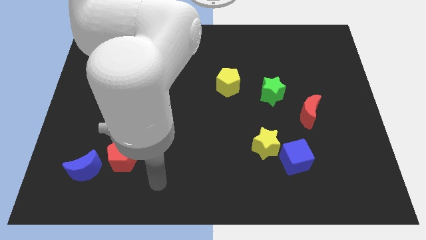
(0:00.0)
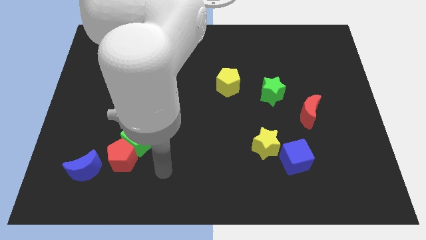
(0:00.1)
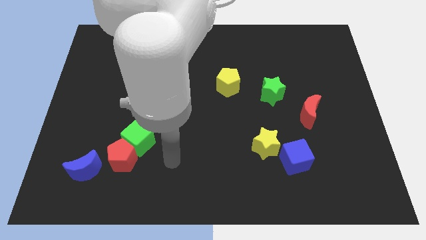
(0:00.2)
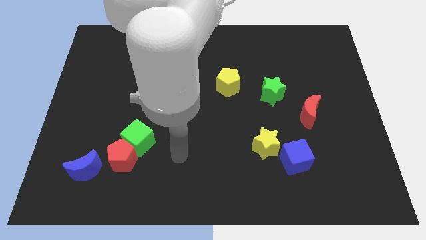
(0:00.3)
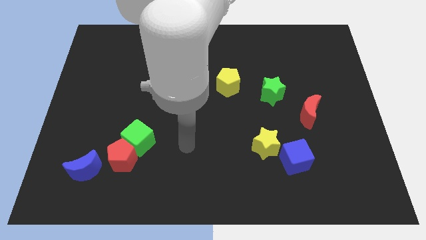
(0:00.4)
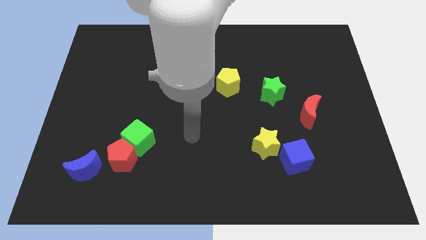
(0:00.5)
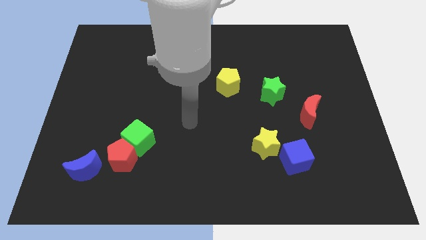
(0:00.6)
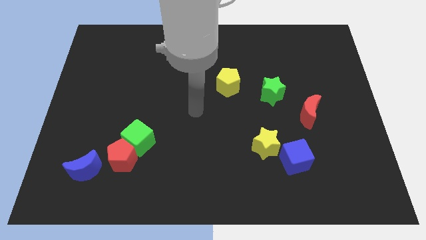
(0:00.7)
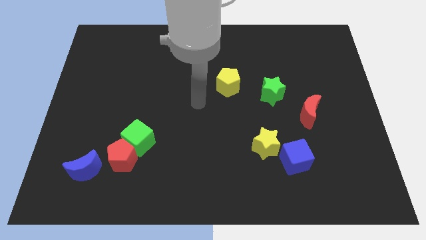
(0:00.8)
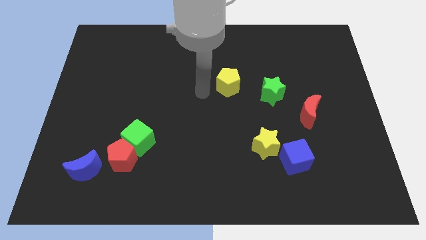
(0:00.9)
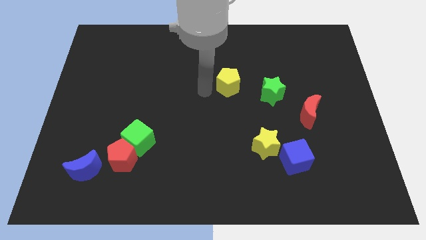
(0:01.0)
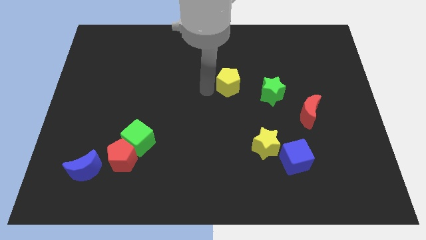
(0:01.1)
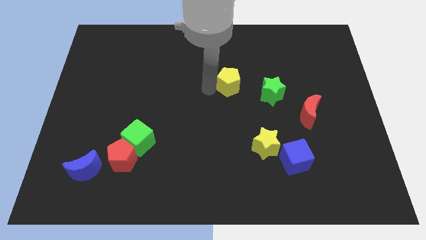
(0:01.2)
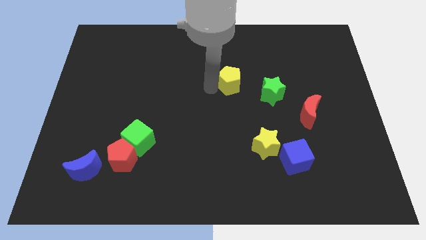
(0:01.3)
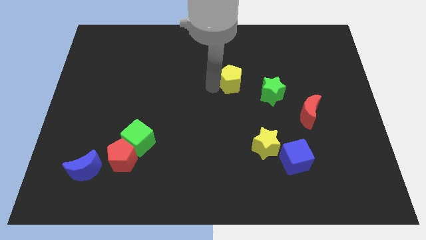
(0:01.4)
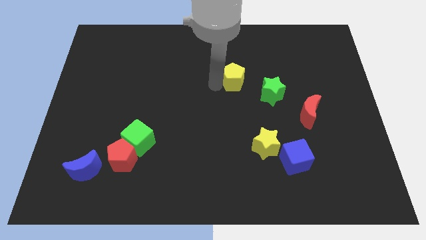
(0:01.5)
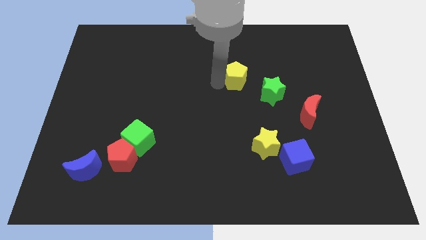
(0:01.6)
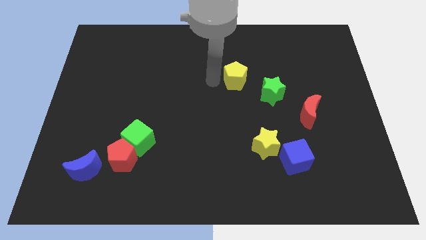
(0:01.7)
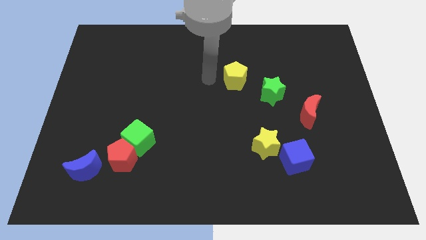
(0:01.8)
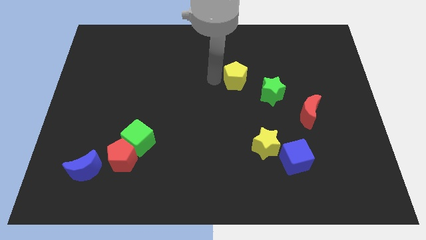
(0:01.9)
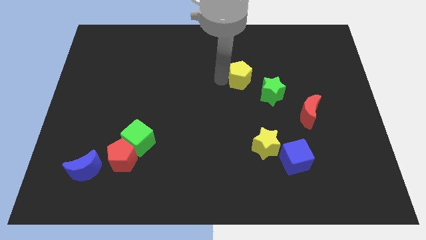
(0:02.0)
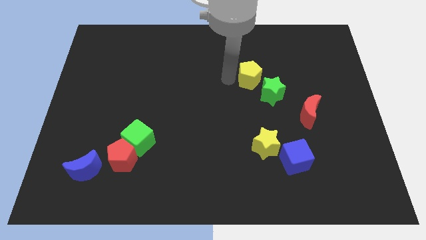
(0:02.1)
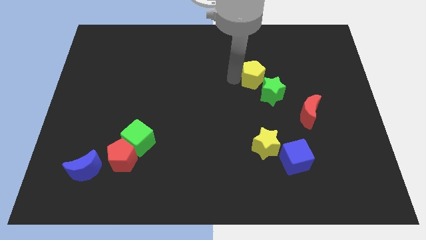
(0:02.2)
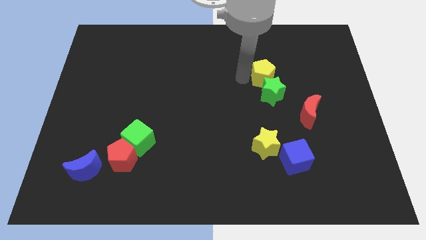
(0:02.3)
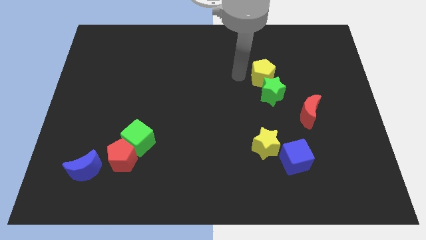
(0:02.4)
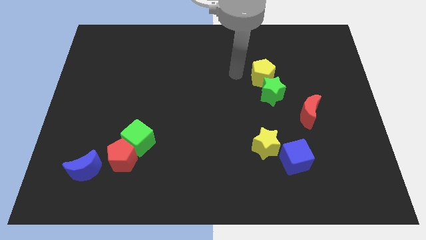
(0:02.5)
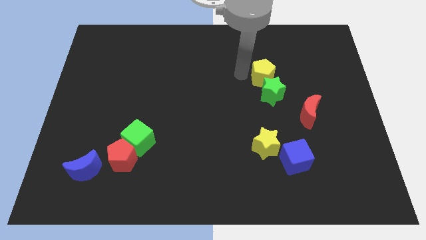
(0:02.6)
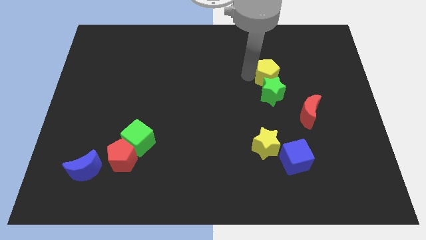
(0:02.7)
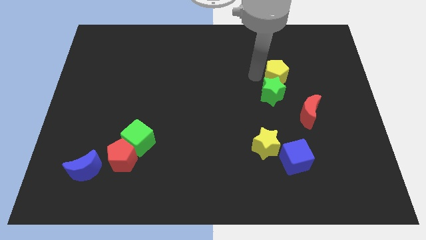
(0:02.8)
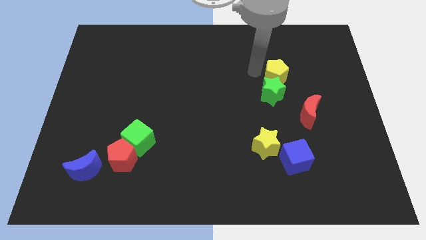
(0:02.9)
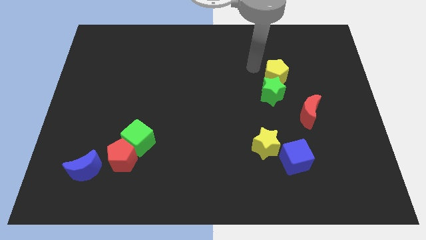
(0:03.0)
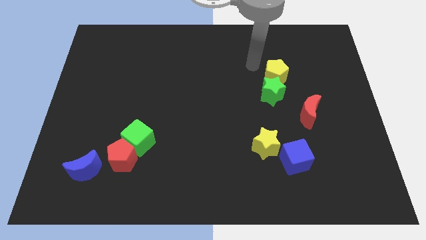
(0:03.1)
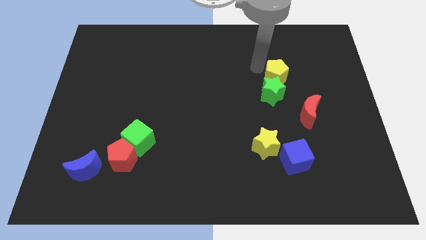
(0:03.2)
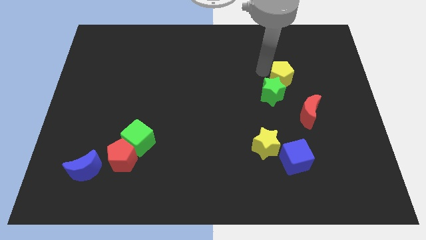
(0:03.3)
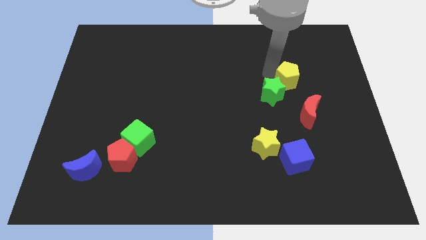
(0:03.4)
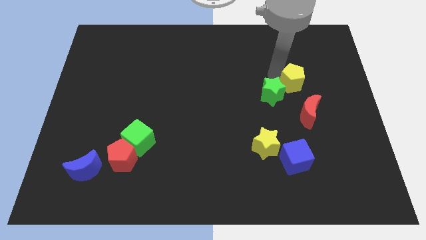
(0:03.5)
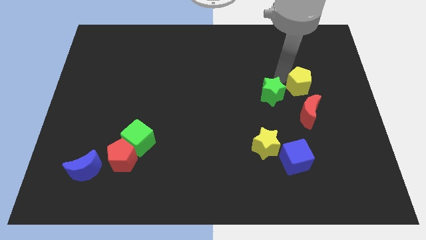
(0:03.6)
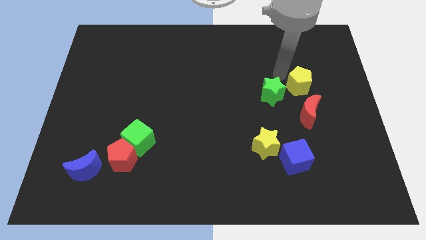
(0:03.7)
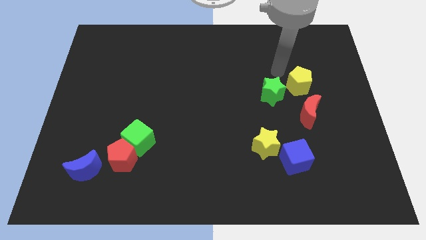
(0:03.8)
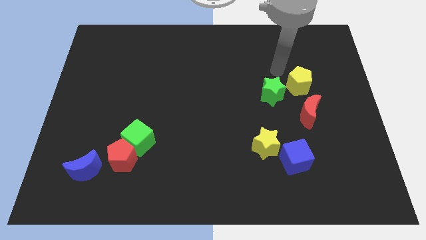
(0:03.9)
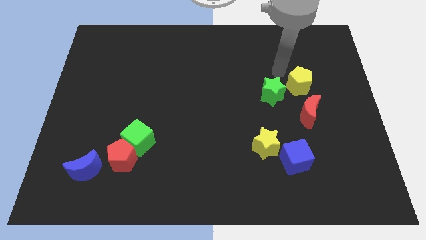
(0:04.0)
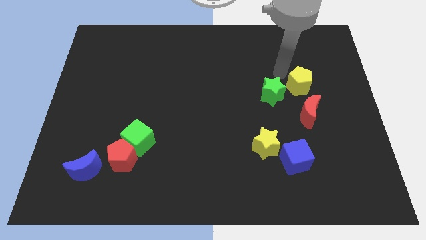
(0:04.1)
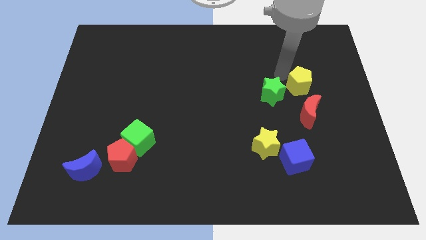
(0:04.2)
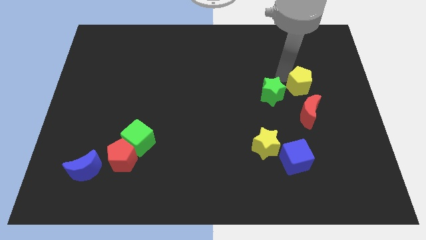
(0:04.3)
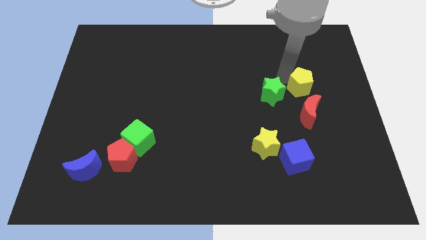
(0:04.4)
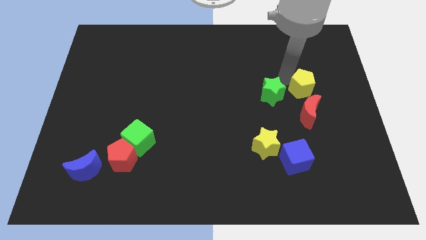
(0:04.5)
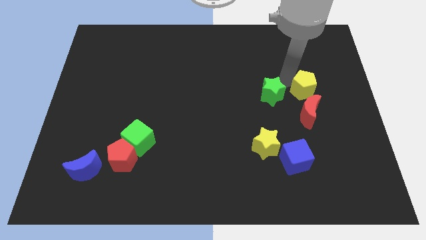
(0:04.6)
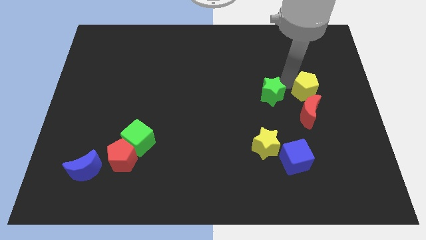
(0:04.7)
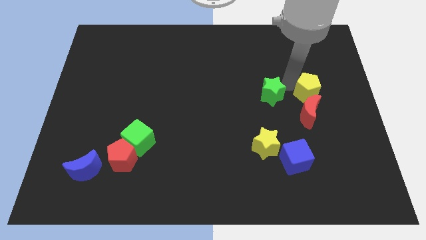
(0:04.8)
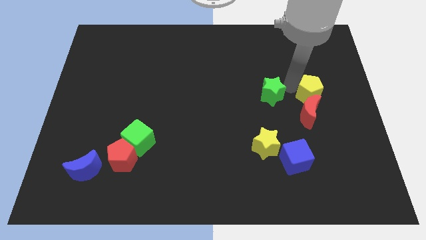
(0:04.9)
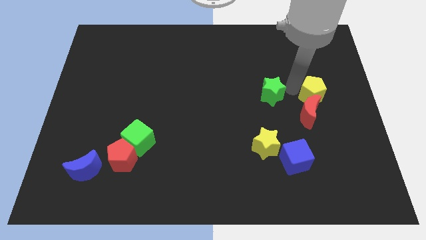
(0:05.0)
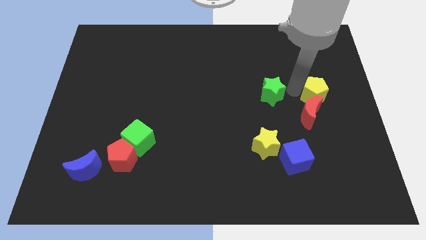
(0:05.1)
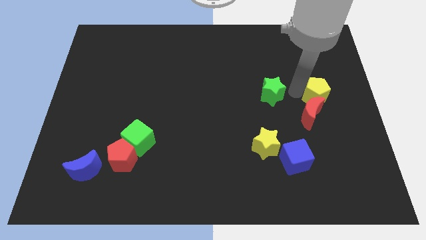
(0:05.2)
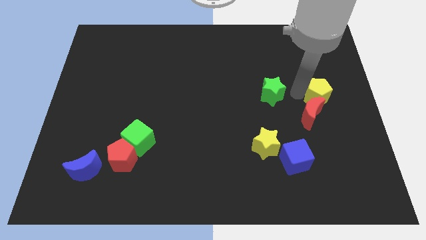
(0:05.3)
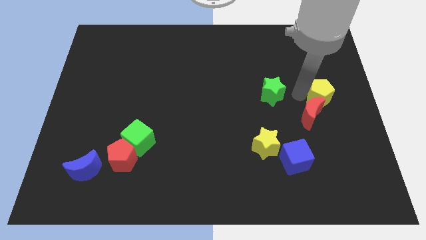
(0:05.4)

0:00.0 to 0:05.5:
slide the yellow pentagon to the right side of the board

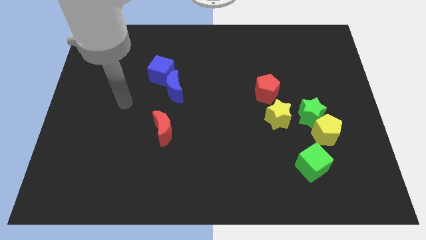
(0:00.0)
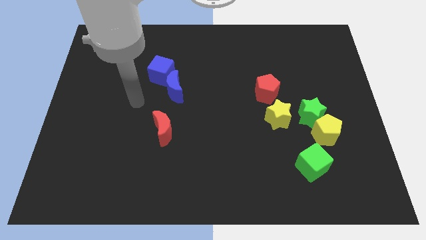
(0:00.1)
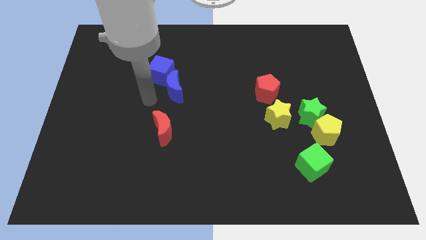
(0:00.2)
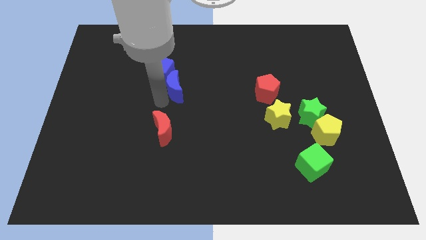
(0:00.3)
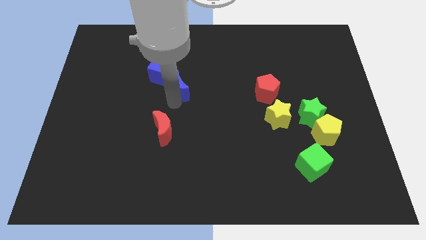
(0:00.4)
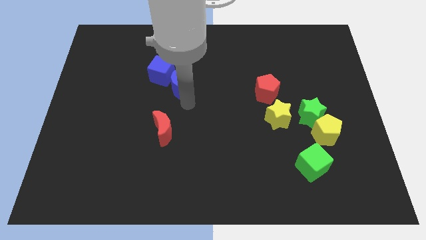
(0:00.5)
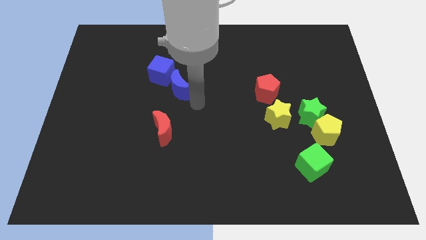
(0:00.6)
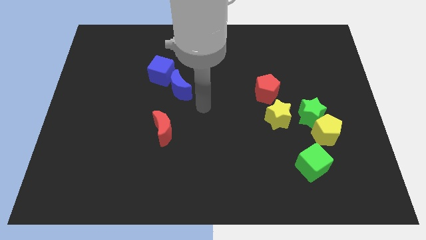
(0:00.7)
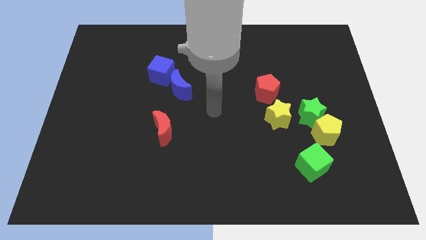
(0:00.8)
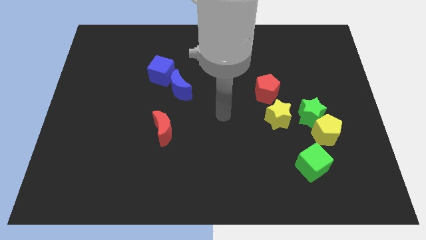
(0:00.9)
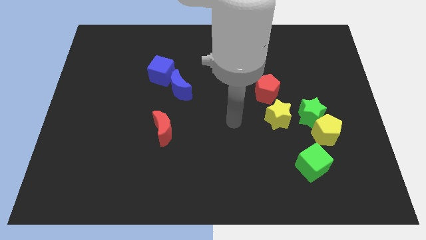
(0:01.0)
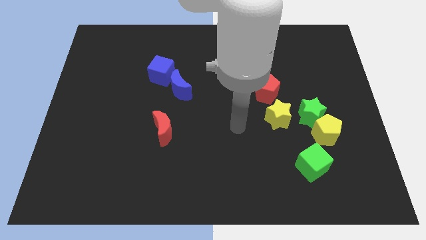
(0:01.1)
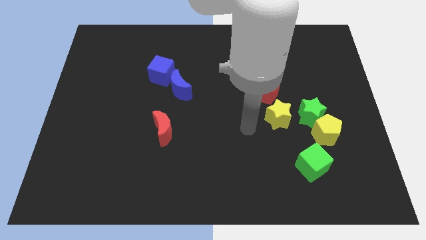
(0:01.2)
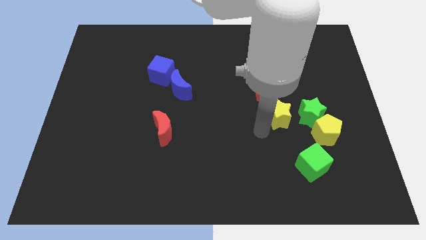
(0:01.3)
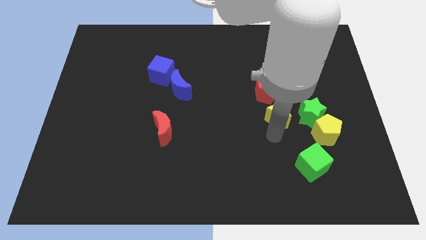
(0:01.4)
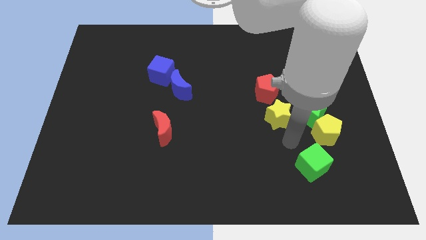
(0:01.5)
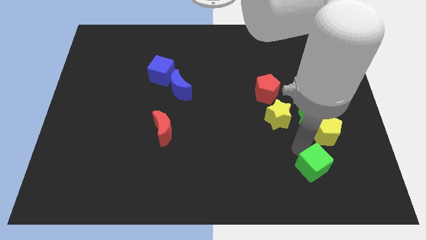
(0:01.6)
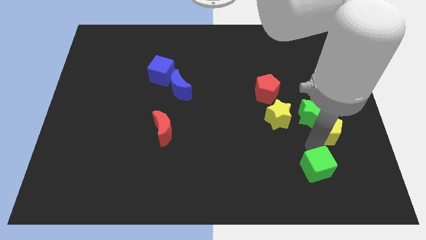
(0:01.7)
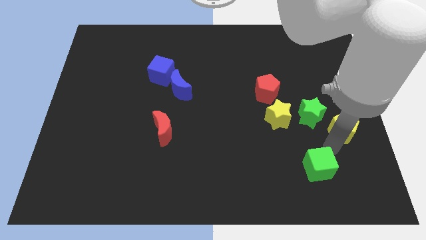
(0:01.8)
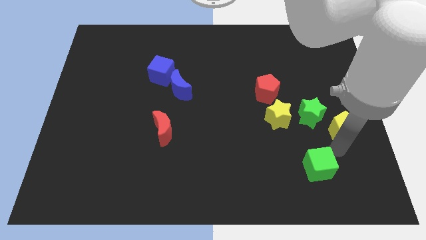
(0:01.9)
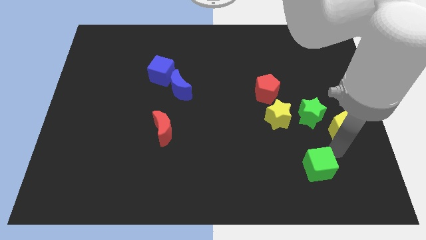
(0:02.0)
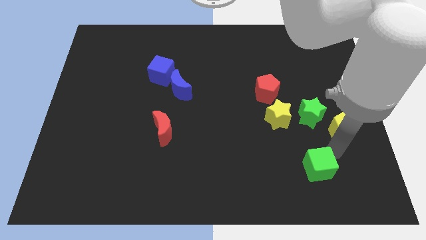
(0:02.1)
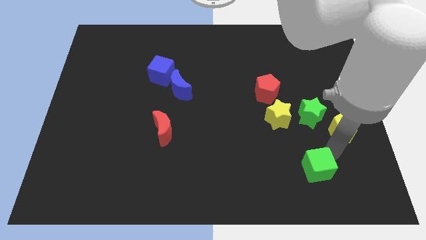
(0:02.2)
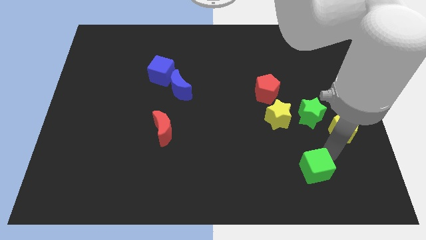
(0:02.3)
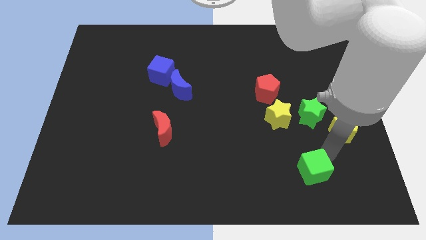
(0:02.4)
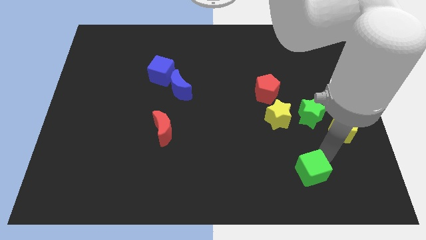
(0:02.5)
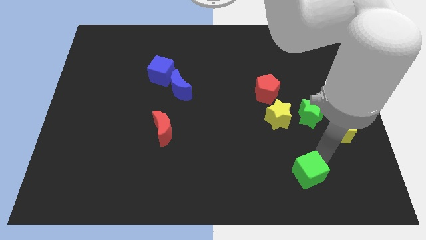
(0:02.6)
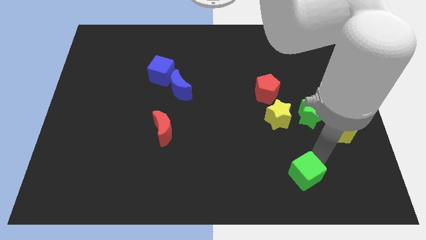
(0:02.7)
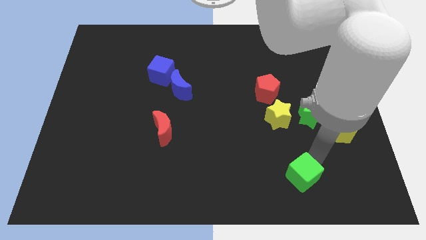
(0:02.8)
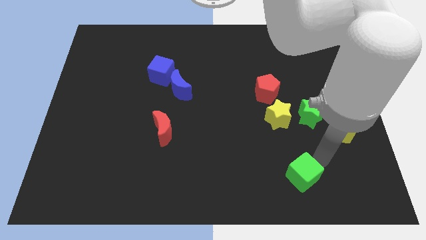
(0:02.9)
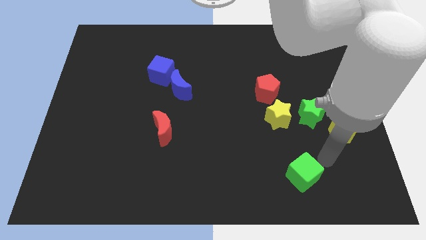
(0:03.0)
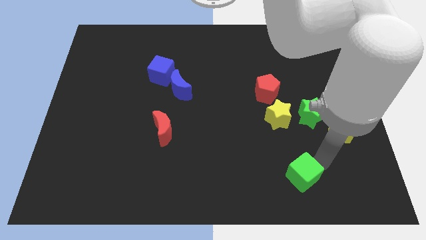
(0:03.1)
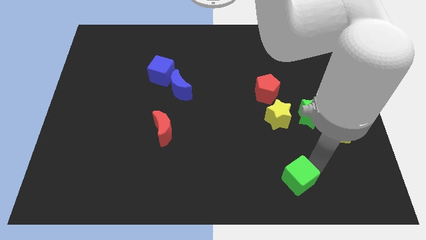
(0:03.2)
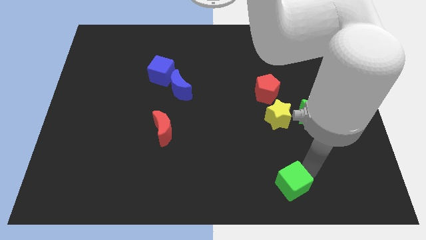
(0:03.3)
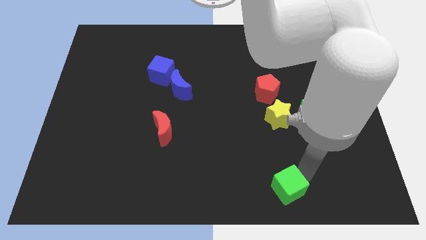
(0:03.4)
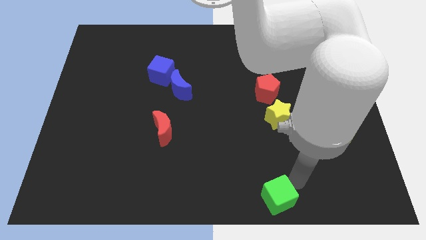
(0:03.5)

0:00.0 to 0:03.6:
slide the green cube to the bottom side
